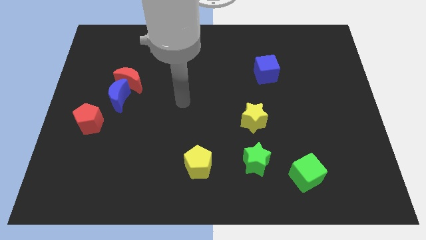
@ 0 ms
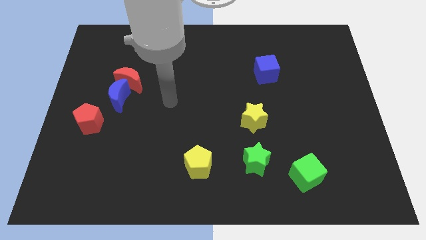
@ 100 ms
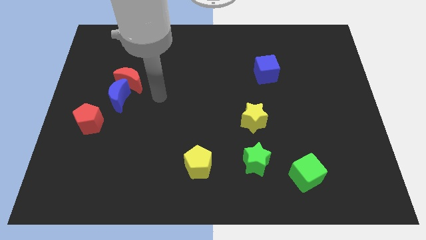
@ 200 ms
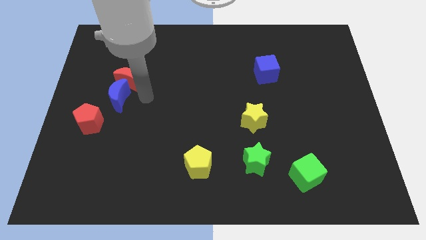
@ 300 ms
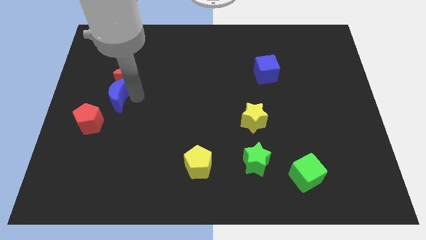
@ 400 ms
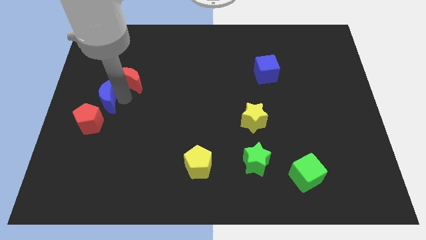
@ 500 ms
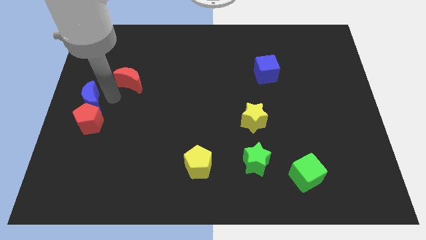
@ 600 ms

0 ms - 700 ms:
separate the red moon from the blue moon

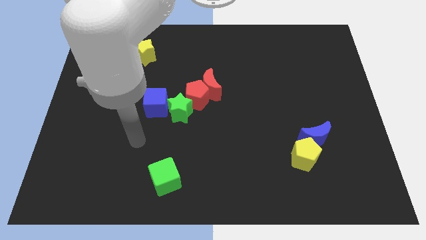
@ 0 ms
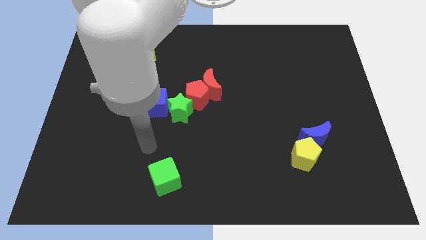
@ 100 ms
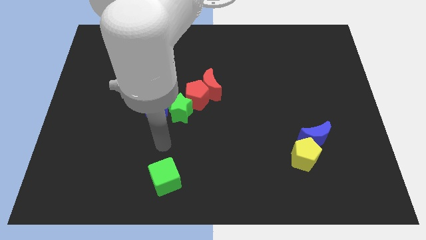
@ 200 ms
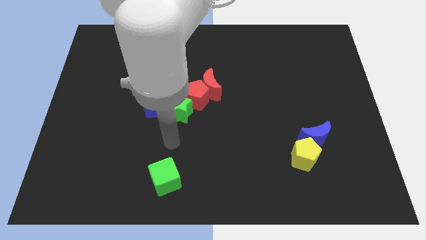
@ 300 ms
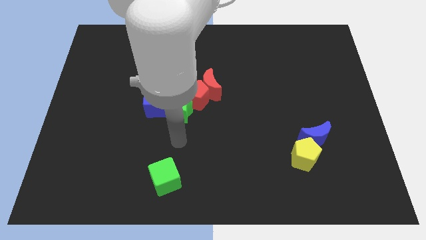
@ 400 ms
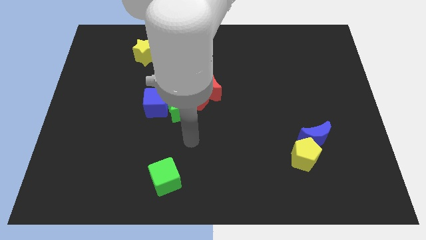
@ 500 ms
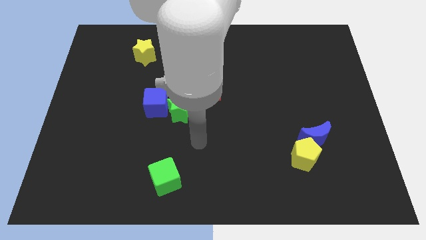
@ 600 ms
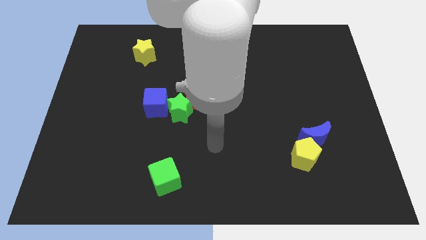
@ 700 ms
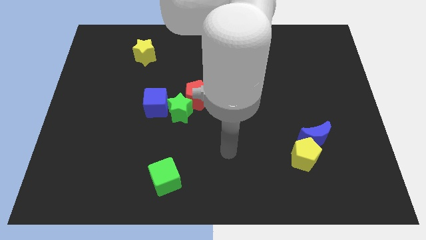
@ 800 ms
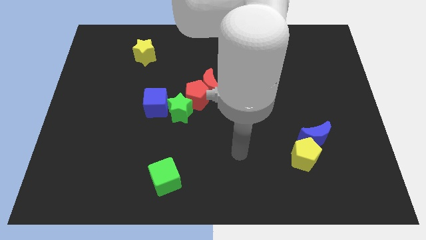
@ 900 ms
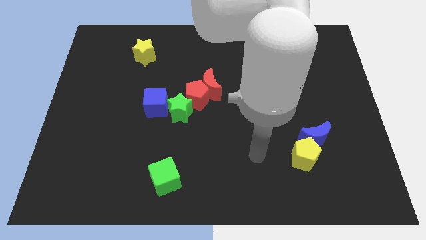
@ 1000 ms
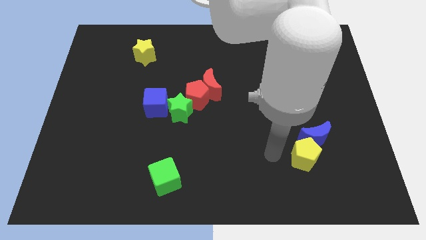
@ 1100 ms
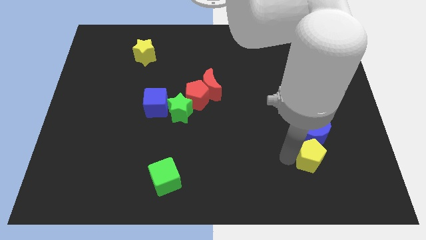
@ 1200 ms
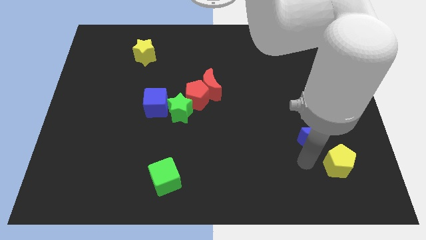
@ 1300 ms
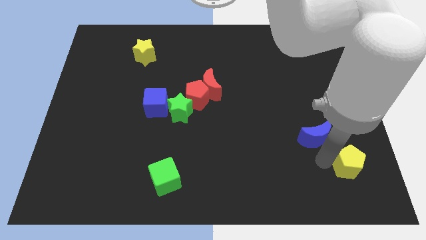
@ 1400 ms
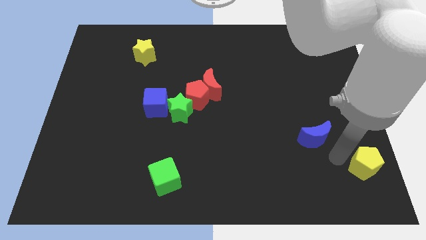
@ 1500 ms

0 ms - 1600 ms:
move the blue moon away from the yellow pentagon

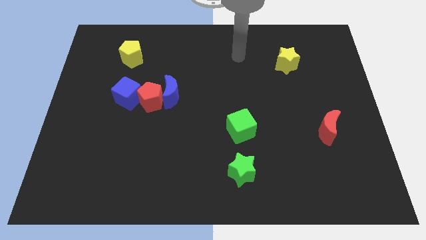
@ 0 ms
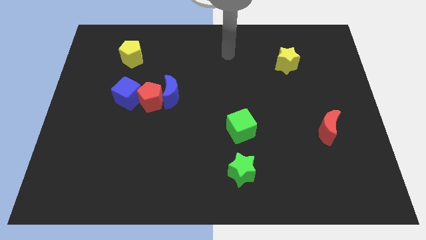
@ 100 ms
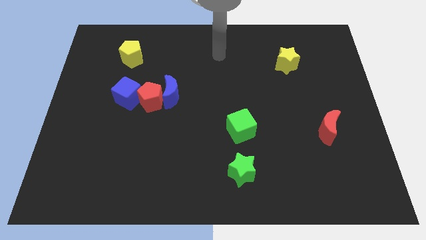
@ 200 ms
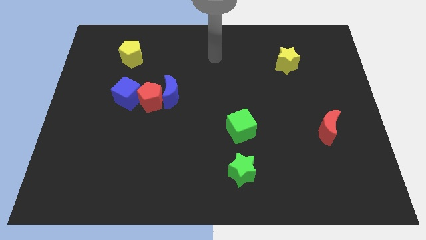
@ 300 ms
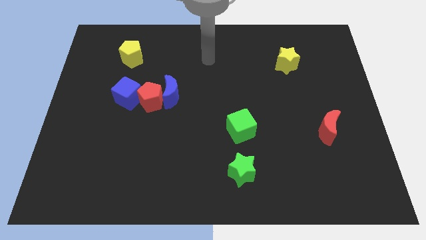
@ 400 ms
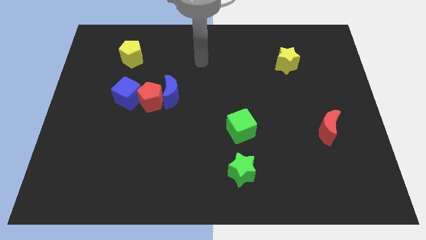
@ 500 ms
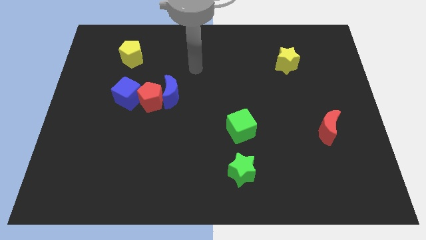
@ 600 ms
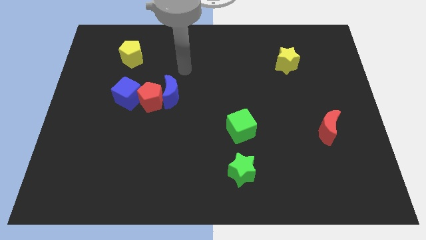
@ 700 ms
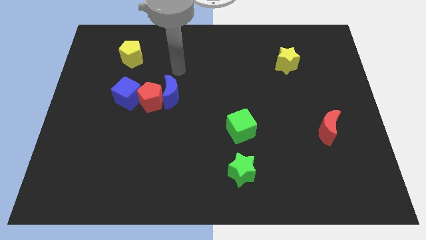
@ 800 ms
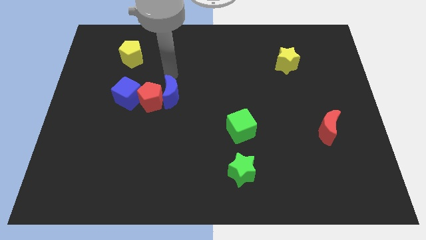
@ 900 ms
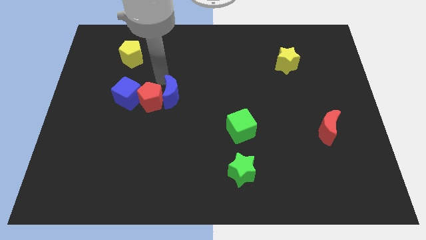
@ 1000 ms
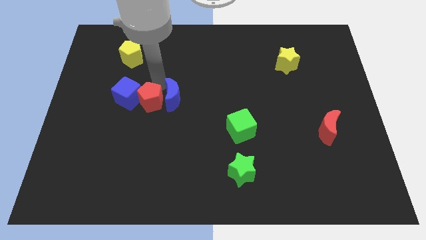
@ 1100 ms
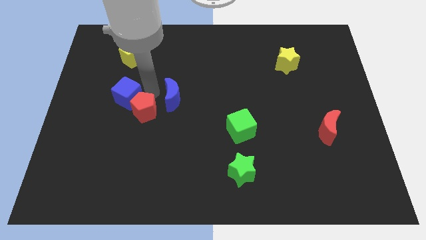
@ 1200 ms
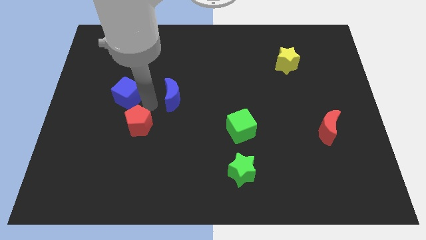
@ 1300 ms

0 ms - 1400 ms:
separate the blue moon from the red pentagon

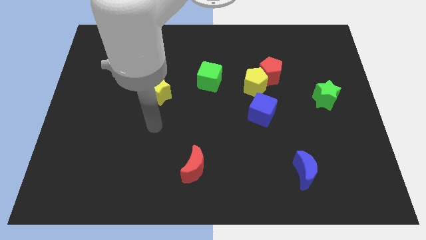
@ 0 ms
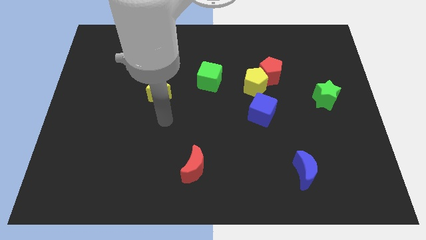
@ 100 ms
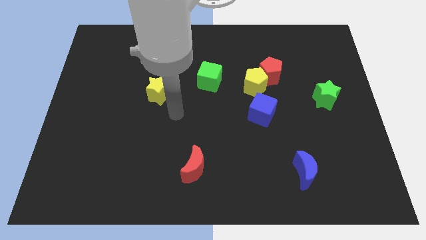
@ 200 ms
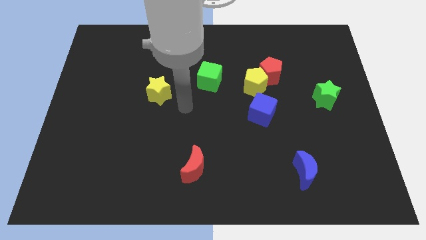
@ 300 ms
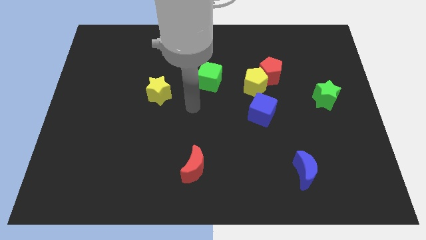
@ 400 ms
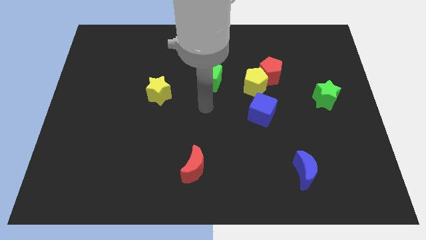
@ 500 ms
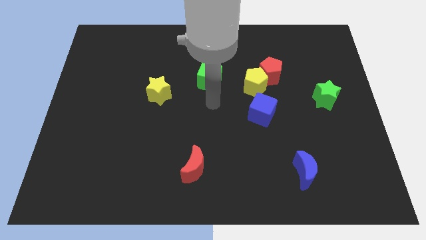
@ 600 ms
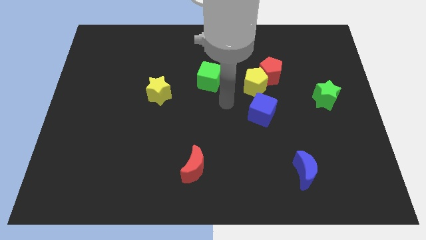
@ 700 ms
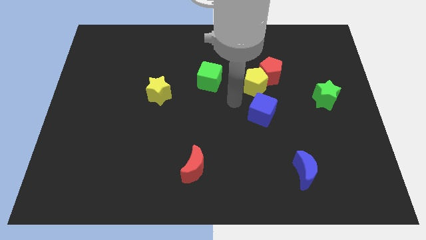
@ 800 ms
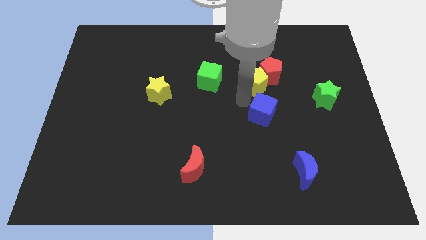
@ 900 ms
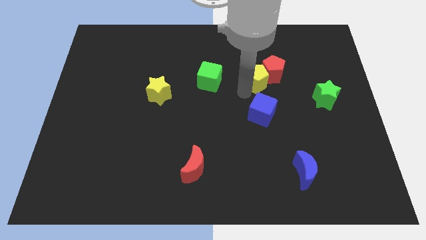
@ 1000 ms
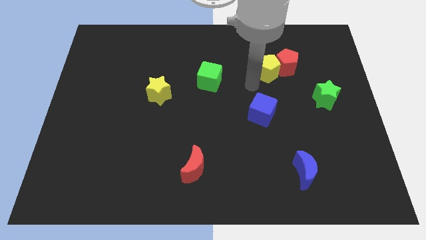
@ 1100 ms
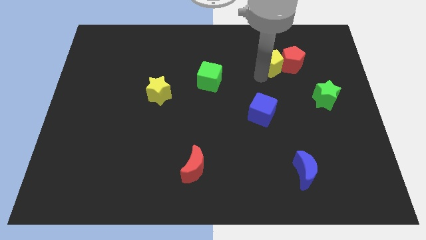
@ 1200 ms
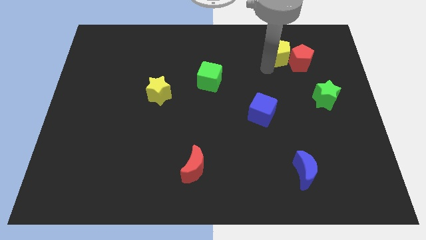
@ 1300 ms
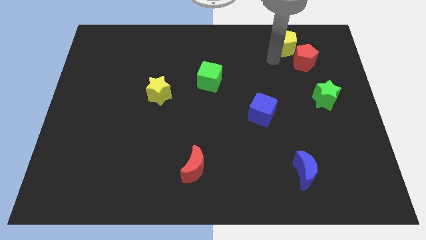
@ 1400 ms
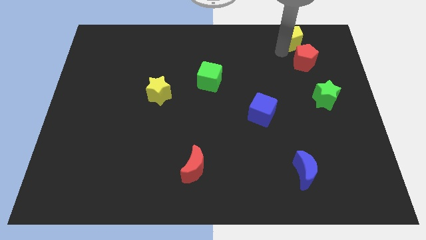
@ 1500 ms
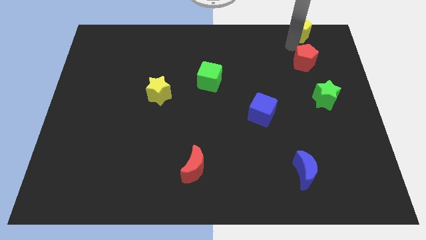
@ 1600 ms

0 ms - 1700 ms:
move the red pentagon away from the yellow pentagon

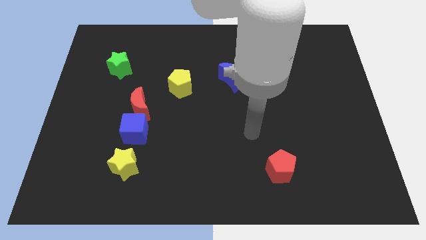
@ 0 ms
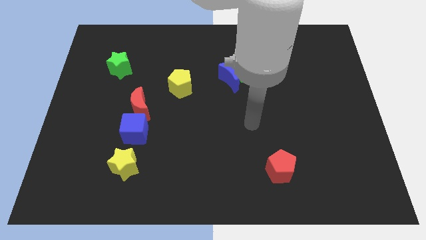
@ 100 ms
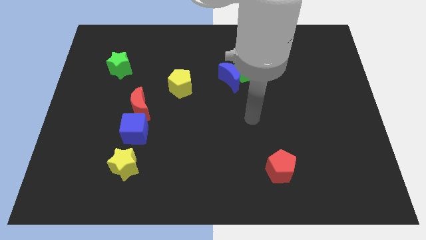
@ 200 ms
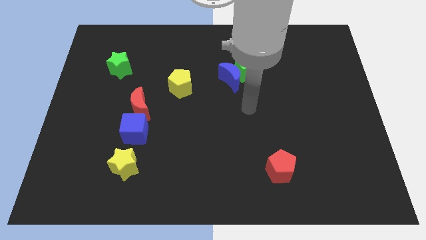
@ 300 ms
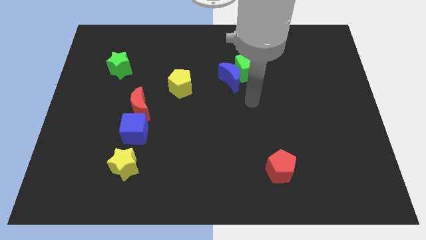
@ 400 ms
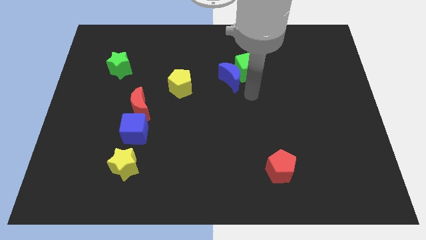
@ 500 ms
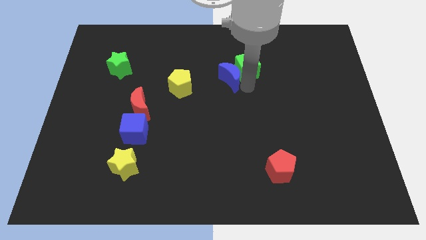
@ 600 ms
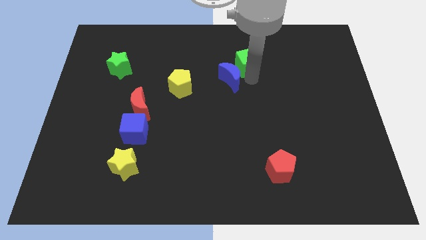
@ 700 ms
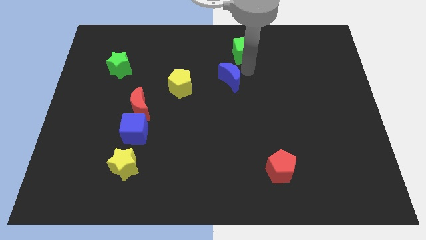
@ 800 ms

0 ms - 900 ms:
move the blue moon away from the green cube

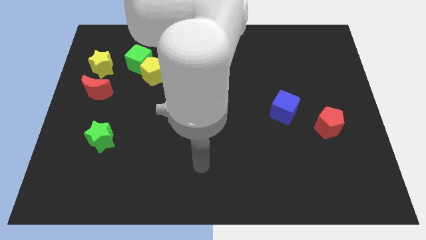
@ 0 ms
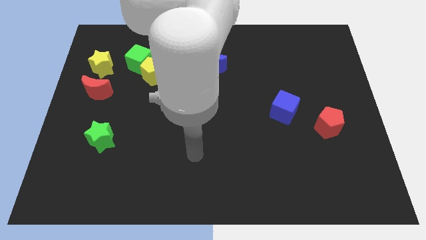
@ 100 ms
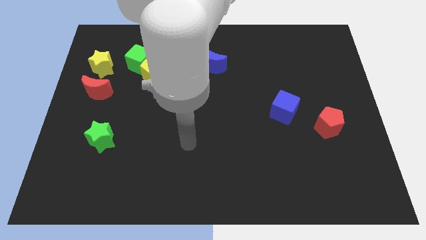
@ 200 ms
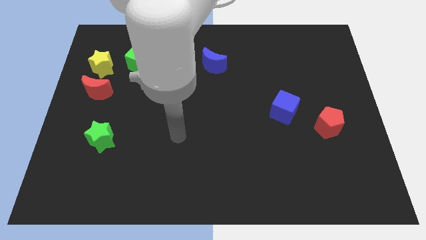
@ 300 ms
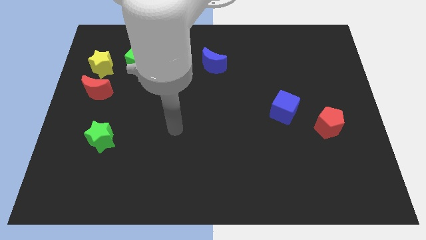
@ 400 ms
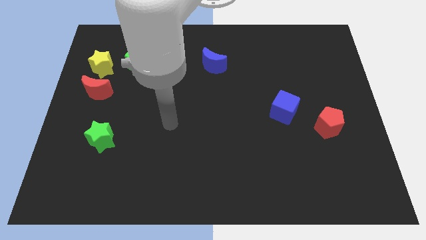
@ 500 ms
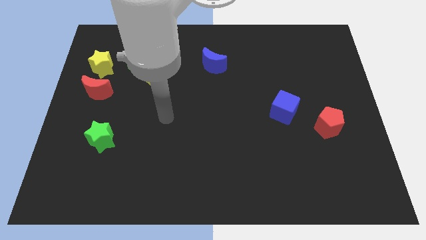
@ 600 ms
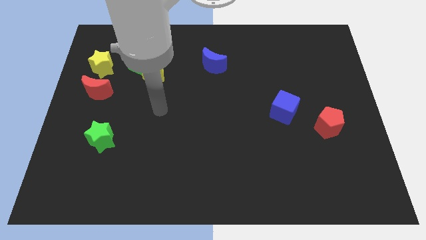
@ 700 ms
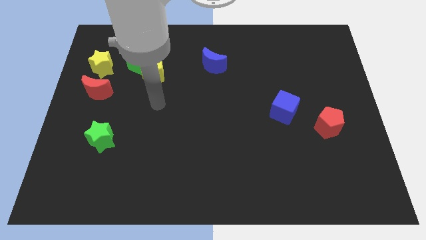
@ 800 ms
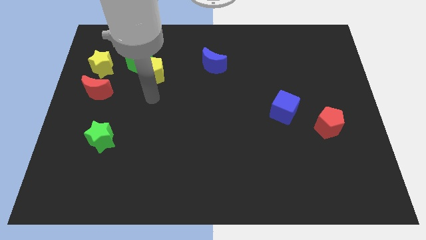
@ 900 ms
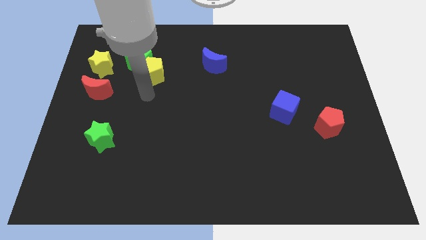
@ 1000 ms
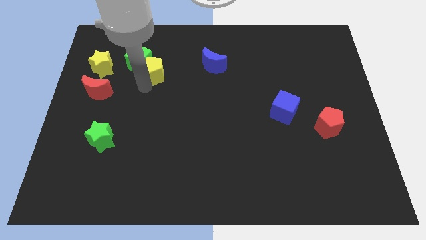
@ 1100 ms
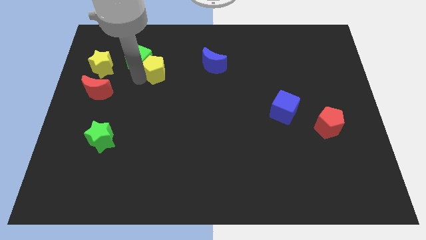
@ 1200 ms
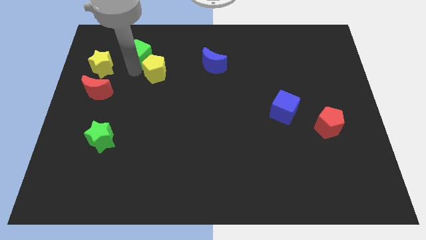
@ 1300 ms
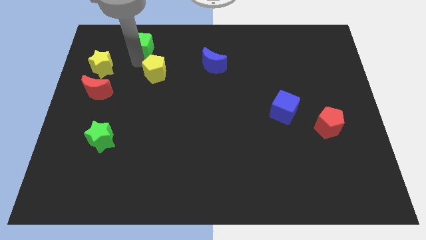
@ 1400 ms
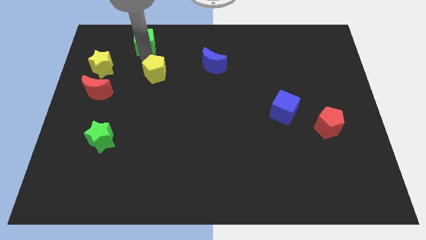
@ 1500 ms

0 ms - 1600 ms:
separate the yellow pentagon from the green cube

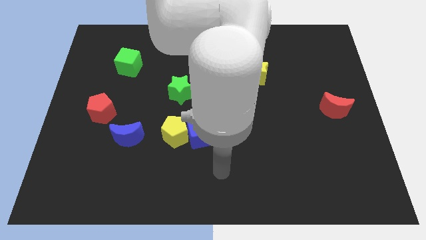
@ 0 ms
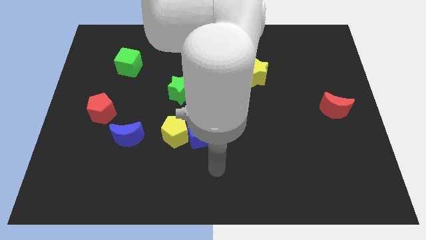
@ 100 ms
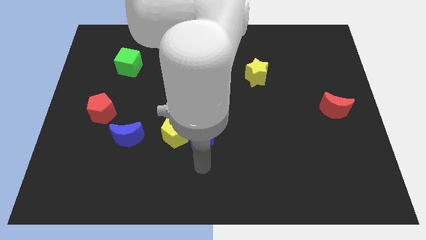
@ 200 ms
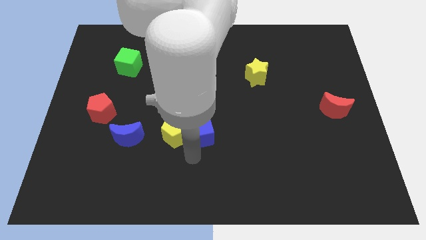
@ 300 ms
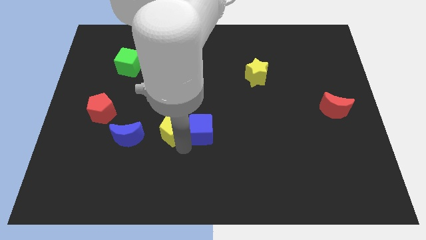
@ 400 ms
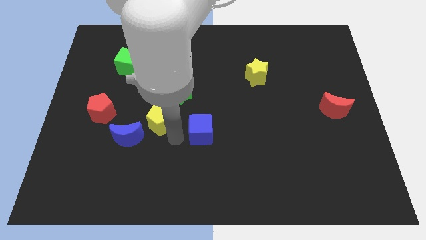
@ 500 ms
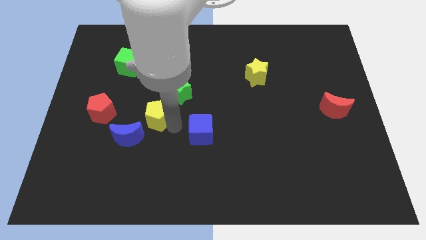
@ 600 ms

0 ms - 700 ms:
pull the blue cube apart from the yellow pentagon

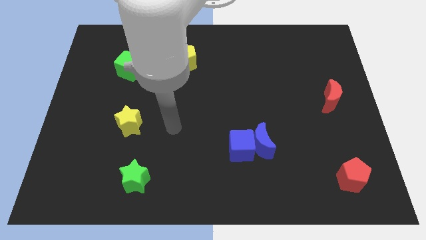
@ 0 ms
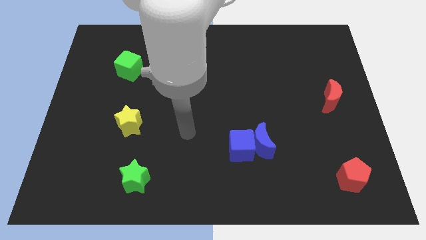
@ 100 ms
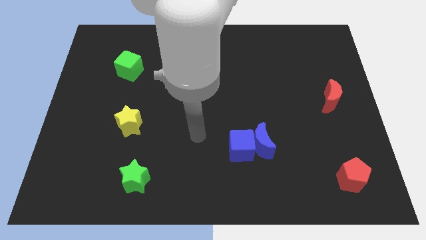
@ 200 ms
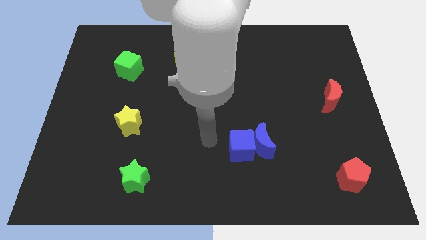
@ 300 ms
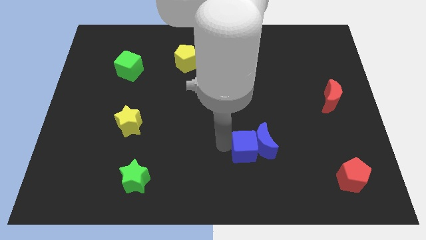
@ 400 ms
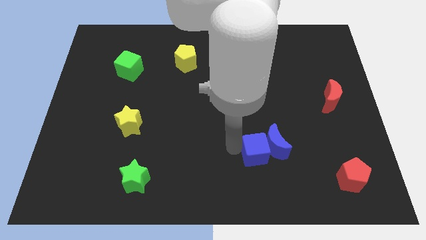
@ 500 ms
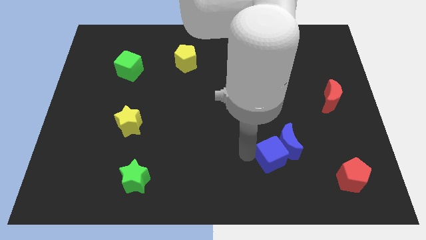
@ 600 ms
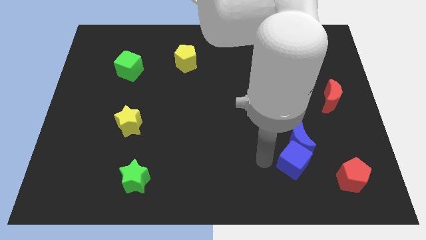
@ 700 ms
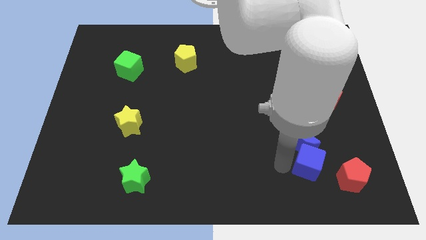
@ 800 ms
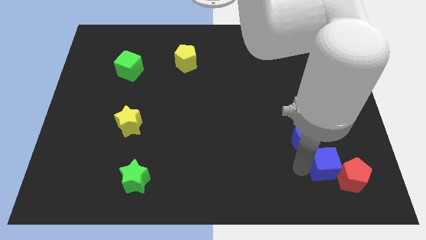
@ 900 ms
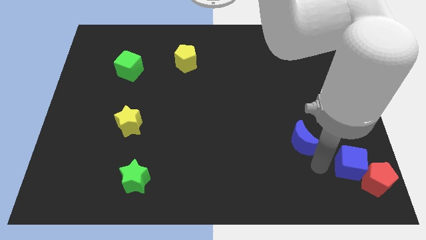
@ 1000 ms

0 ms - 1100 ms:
pull the blue moon apart from the blue cube
